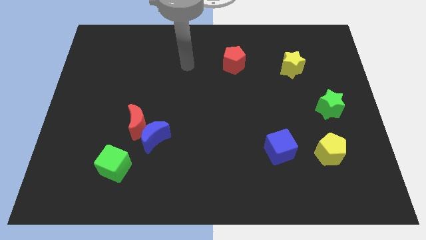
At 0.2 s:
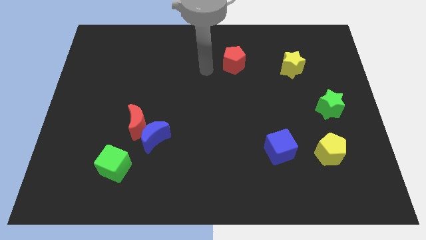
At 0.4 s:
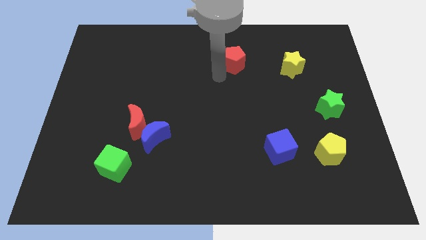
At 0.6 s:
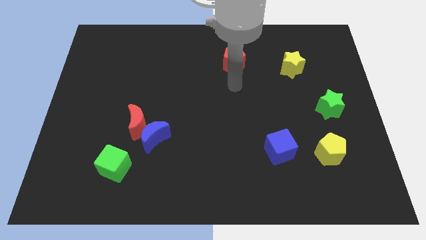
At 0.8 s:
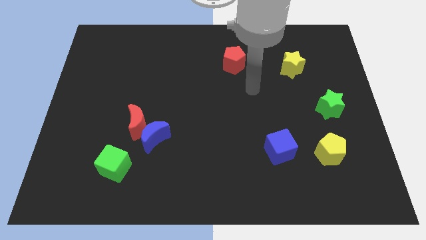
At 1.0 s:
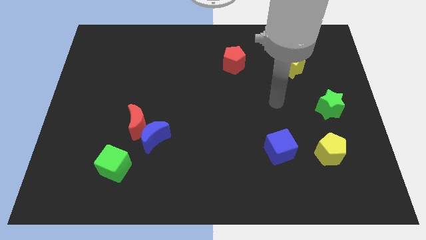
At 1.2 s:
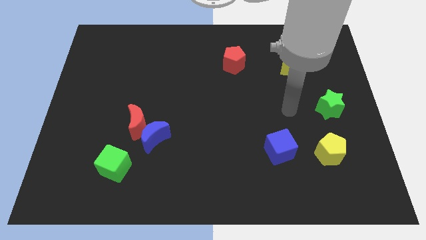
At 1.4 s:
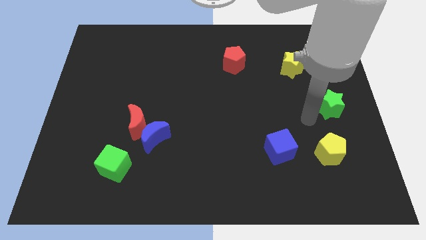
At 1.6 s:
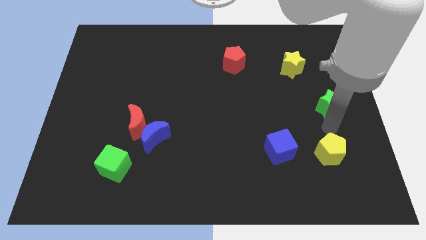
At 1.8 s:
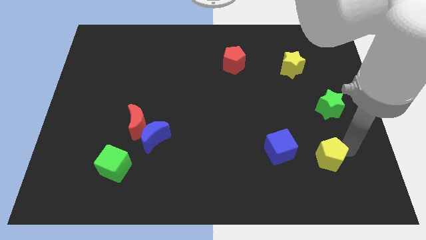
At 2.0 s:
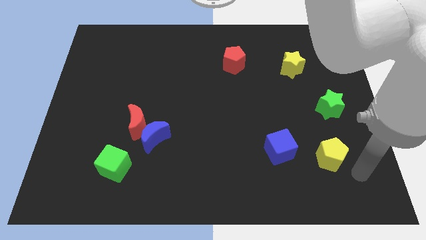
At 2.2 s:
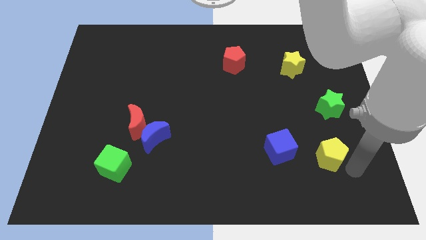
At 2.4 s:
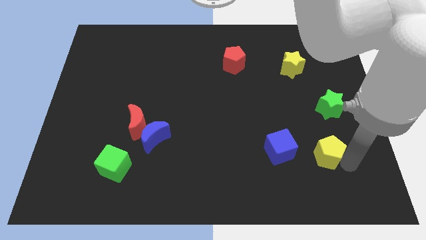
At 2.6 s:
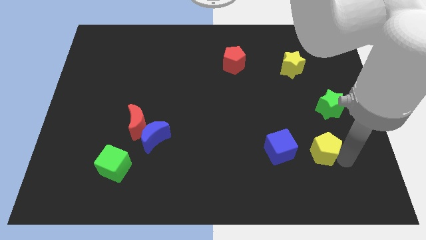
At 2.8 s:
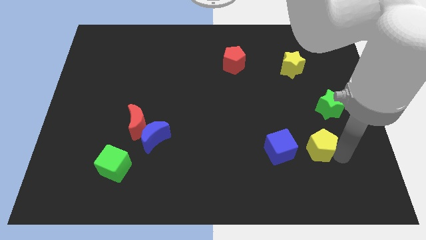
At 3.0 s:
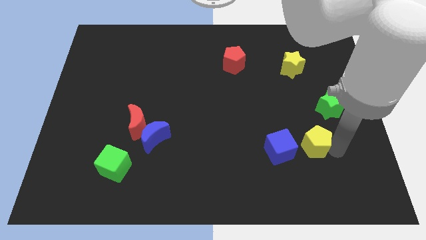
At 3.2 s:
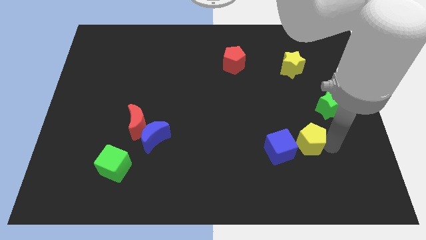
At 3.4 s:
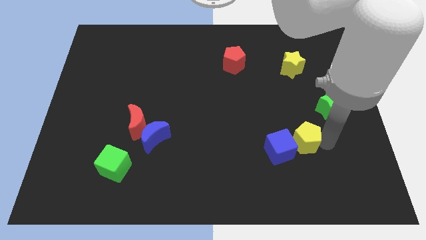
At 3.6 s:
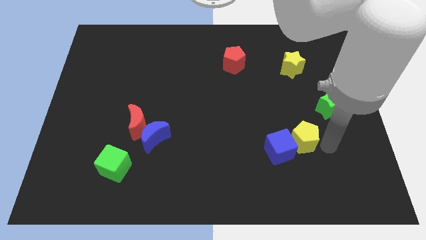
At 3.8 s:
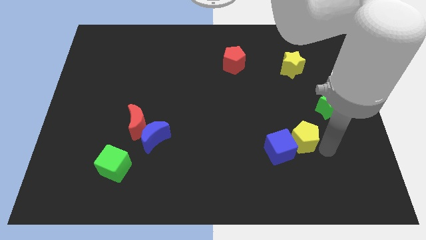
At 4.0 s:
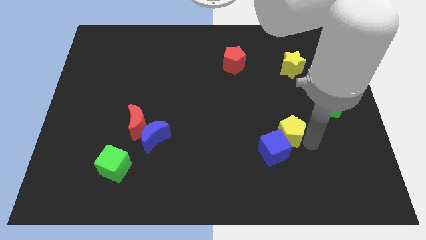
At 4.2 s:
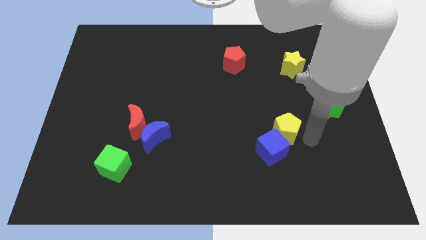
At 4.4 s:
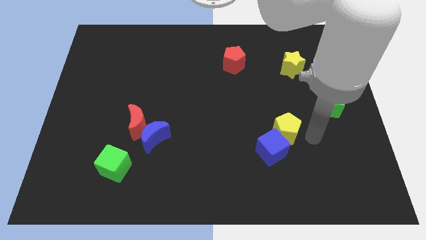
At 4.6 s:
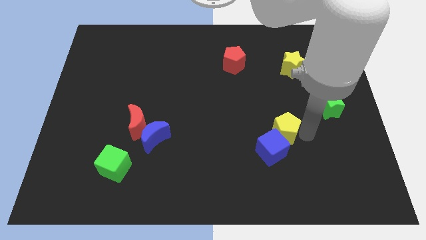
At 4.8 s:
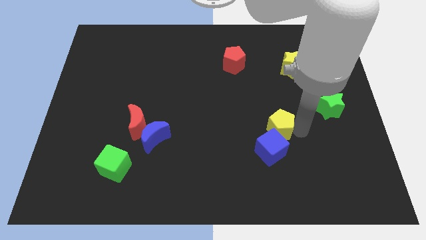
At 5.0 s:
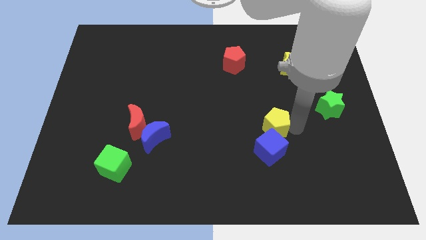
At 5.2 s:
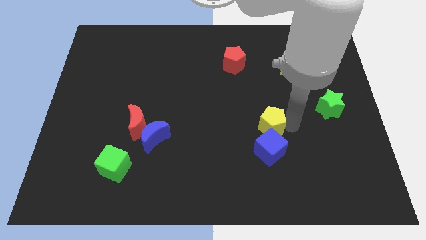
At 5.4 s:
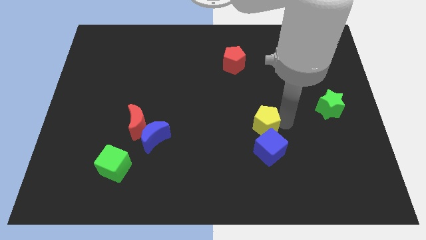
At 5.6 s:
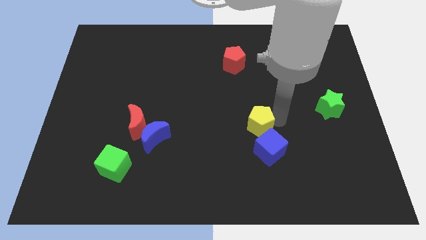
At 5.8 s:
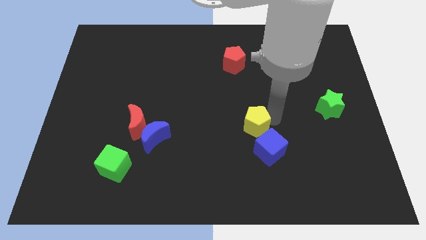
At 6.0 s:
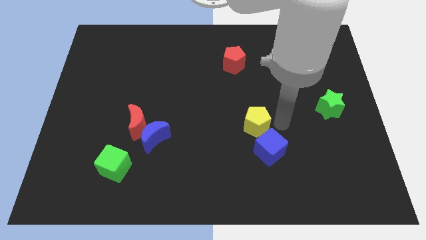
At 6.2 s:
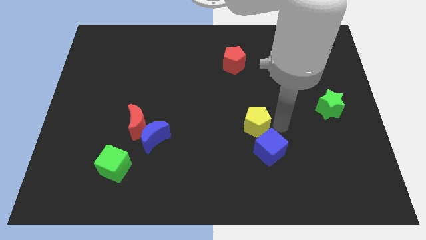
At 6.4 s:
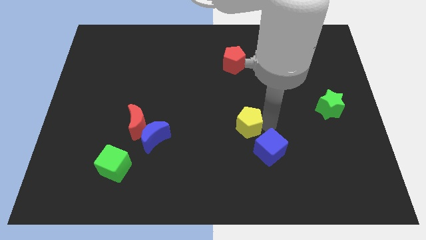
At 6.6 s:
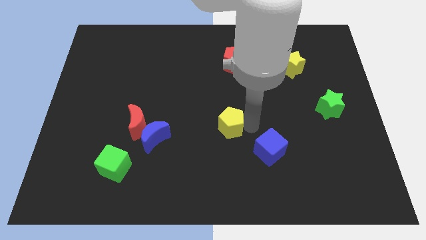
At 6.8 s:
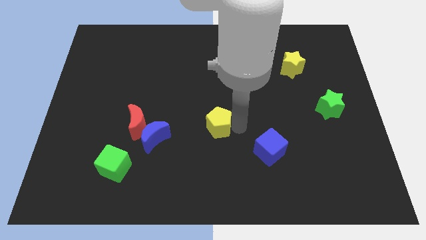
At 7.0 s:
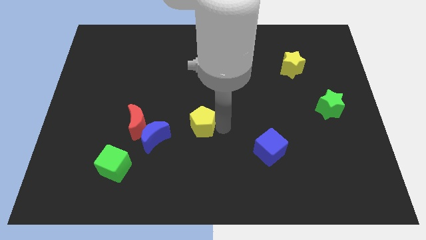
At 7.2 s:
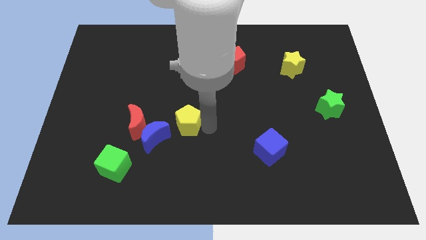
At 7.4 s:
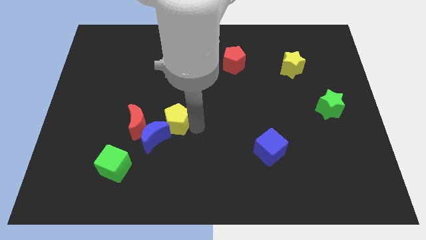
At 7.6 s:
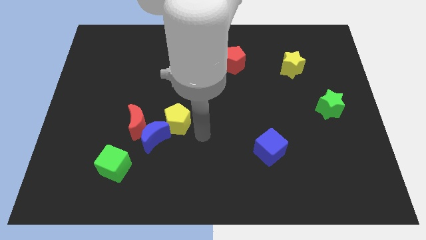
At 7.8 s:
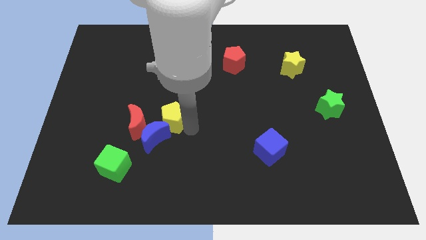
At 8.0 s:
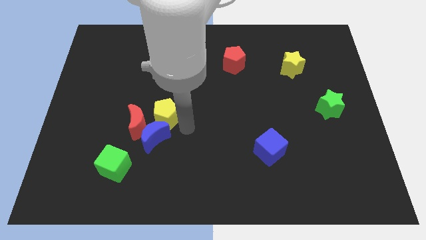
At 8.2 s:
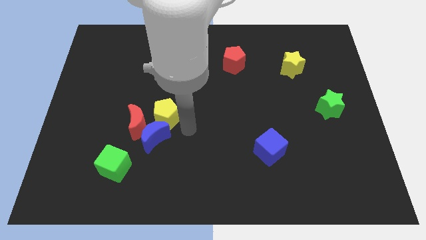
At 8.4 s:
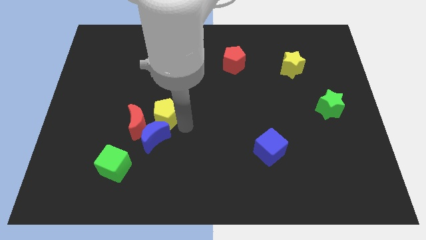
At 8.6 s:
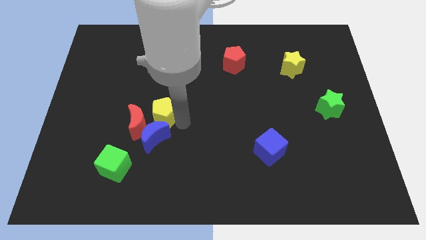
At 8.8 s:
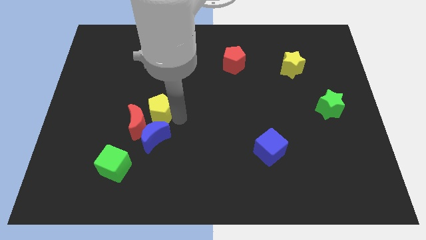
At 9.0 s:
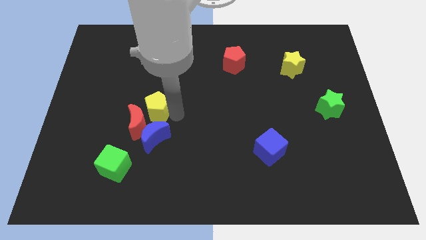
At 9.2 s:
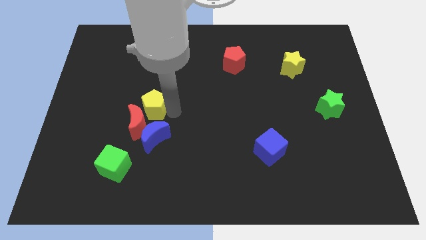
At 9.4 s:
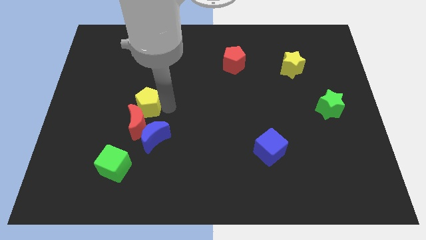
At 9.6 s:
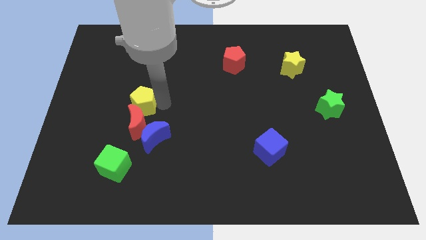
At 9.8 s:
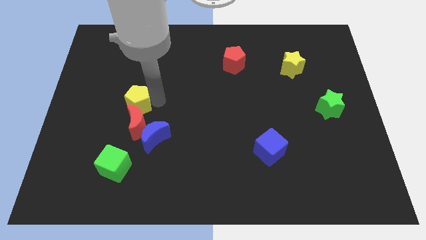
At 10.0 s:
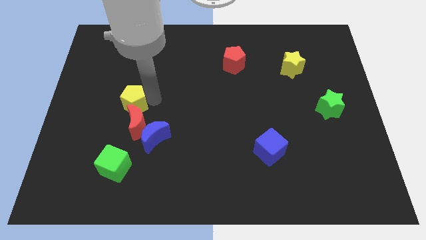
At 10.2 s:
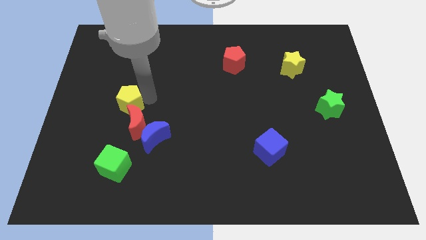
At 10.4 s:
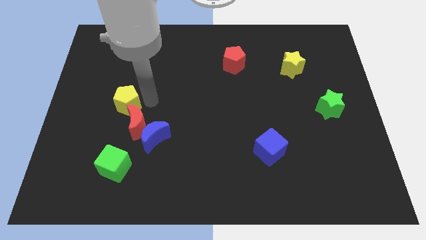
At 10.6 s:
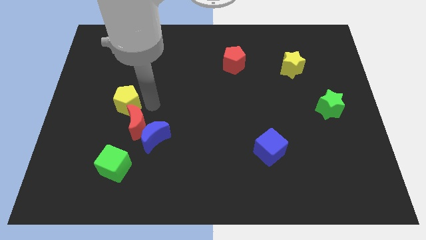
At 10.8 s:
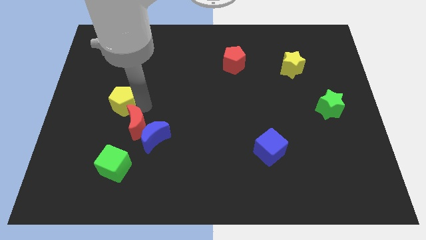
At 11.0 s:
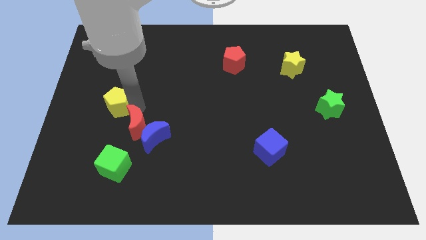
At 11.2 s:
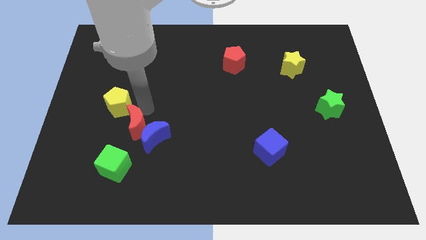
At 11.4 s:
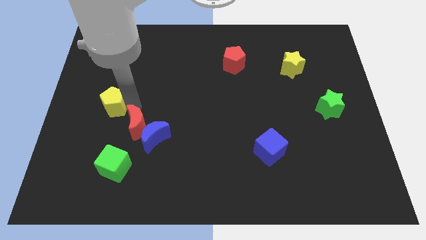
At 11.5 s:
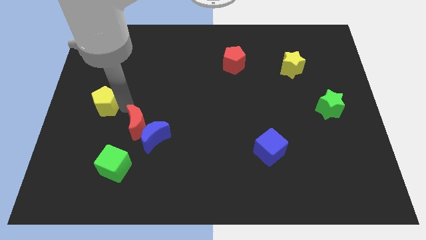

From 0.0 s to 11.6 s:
slide the yellow pentagon to the center left

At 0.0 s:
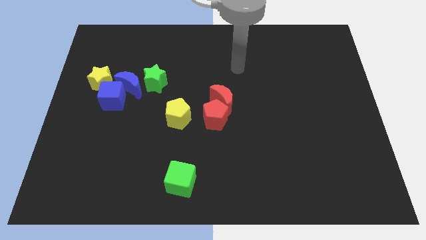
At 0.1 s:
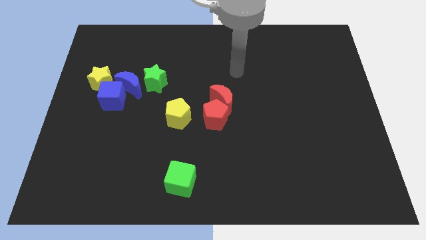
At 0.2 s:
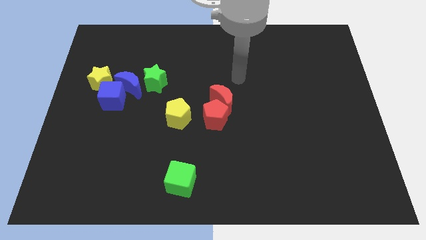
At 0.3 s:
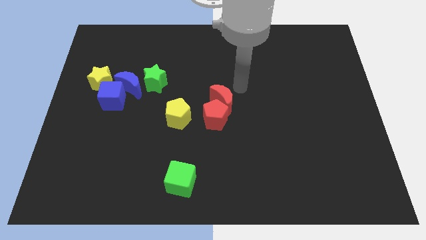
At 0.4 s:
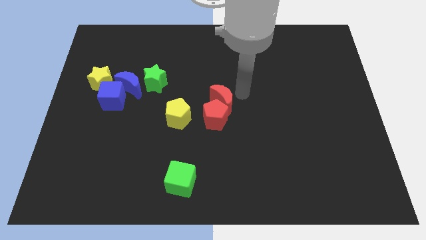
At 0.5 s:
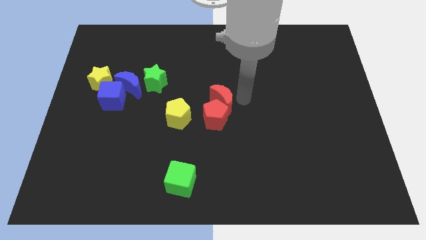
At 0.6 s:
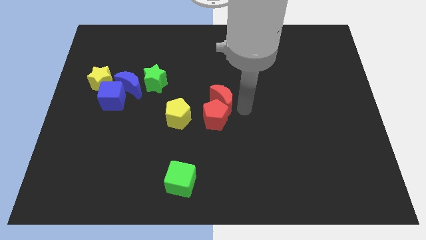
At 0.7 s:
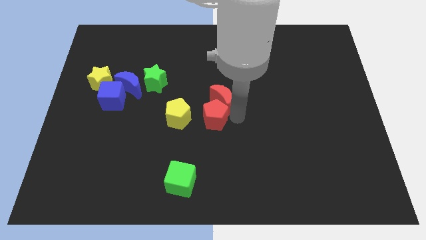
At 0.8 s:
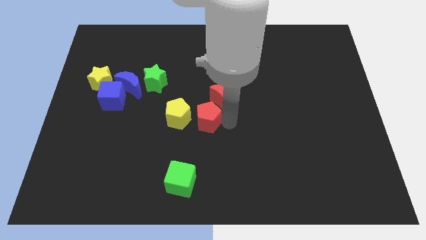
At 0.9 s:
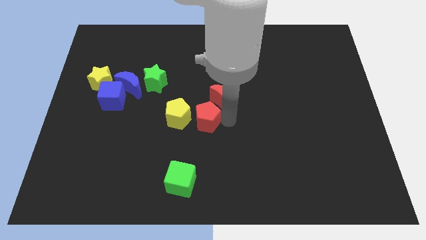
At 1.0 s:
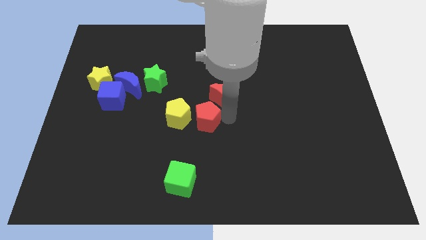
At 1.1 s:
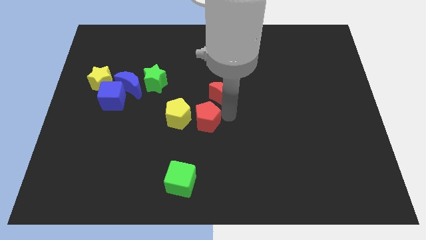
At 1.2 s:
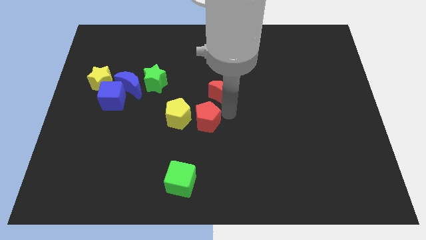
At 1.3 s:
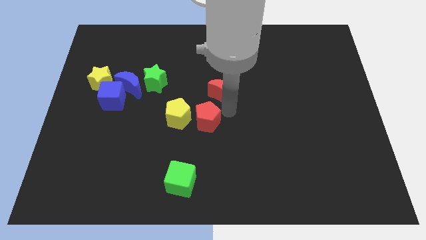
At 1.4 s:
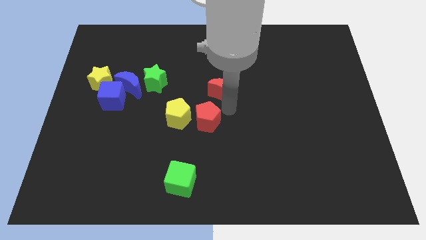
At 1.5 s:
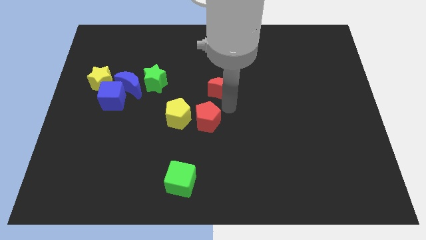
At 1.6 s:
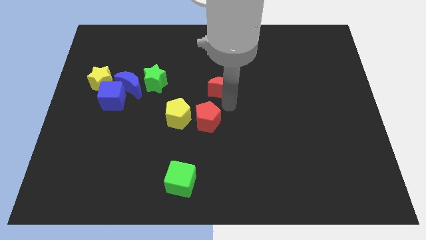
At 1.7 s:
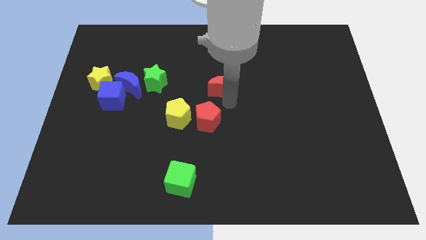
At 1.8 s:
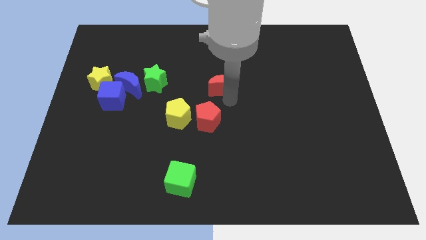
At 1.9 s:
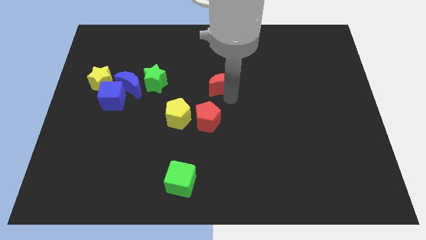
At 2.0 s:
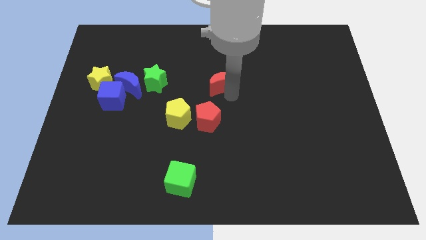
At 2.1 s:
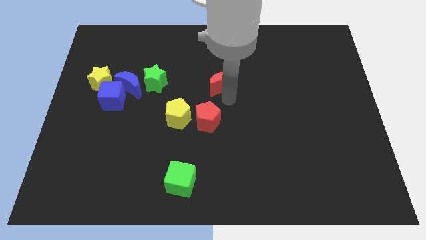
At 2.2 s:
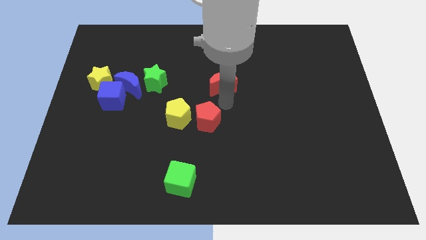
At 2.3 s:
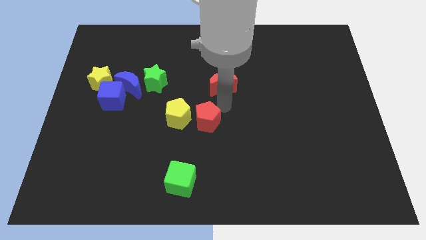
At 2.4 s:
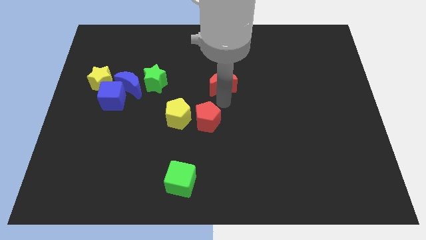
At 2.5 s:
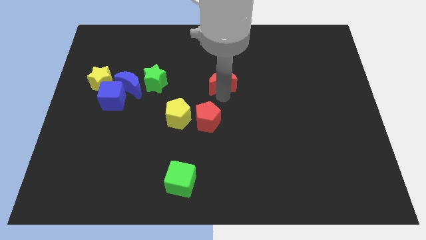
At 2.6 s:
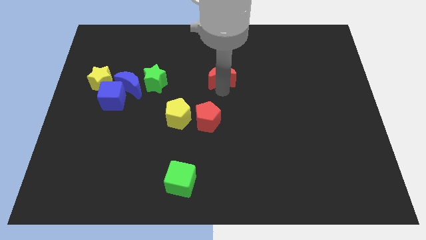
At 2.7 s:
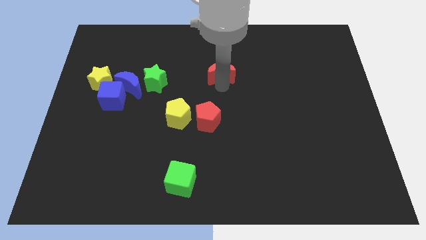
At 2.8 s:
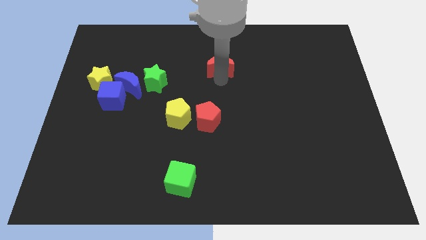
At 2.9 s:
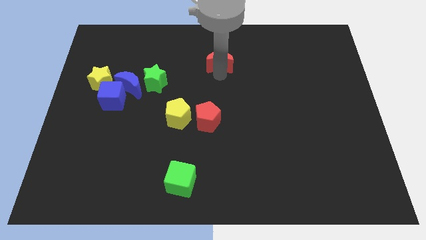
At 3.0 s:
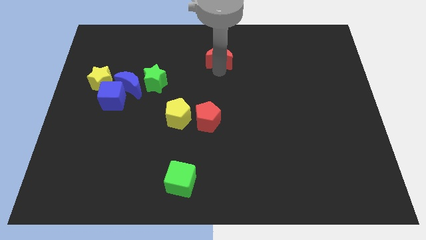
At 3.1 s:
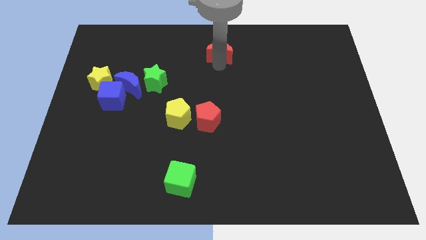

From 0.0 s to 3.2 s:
slide the red moon to the top side
